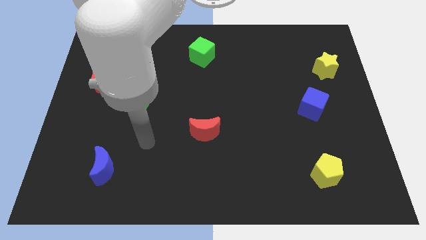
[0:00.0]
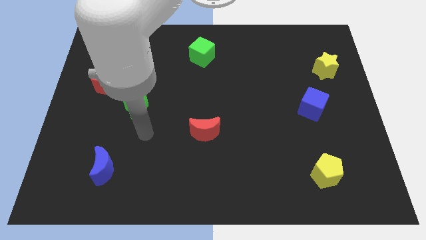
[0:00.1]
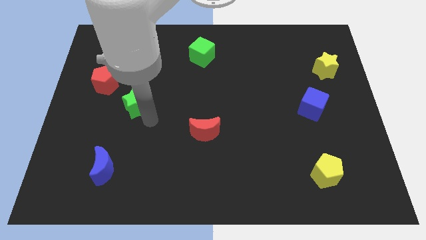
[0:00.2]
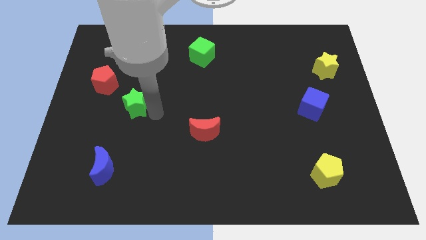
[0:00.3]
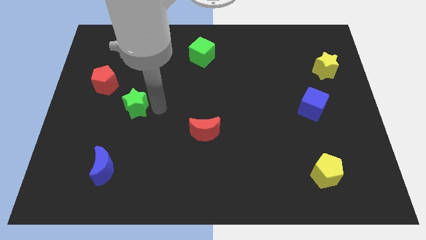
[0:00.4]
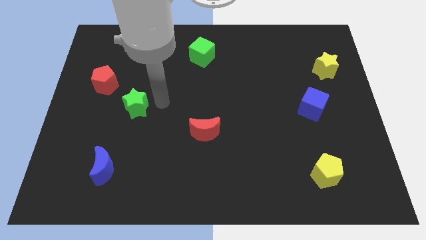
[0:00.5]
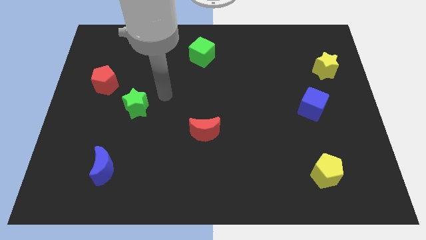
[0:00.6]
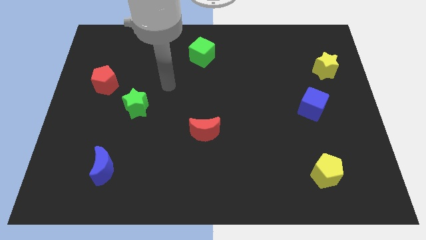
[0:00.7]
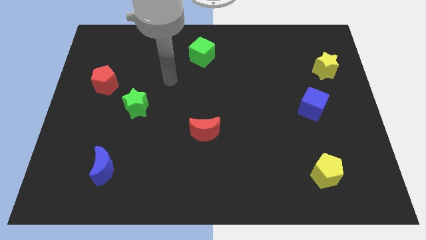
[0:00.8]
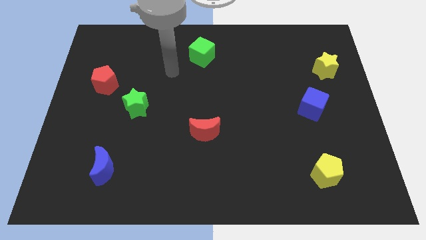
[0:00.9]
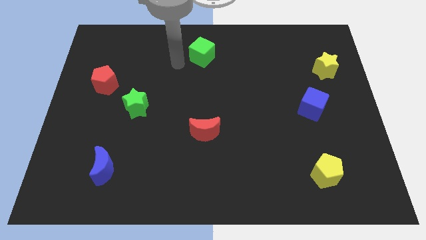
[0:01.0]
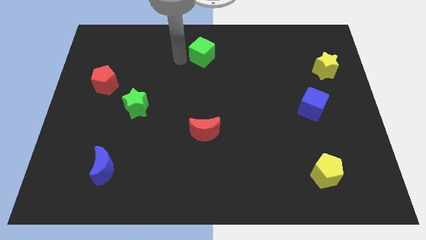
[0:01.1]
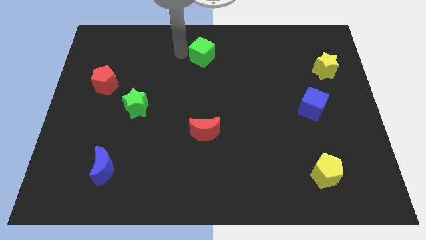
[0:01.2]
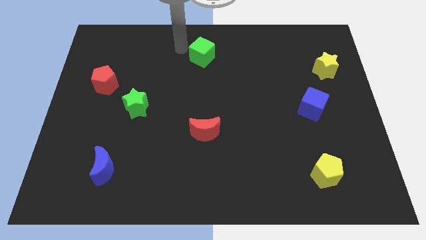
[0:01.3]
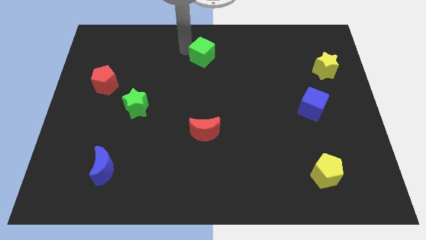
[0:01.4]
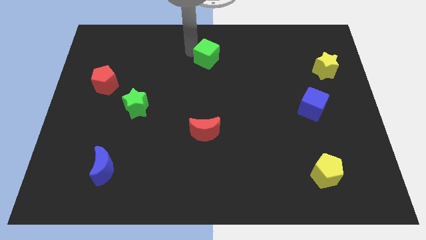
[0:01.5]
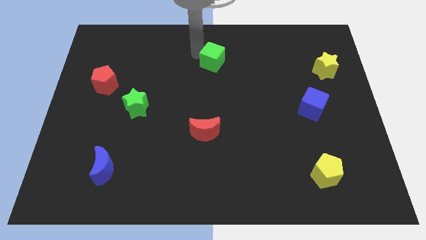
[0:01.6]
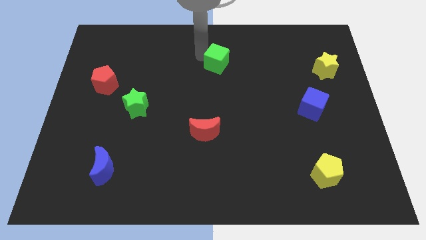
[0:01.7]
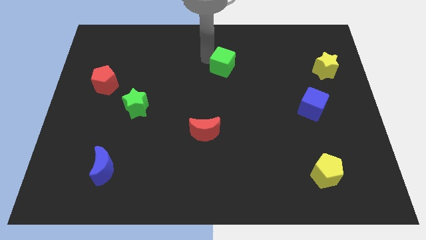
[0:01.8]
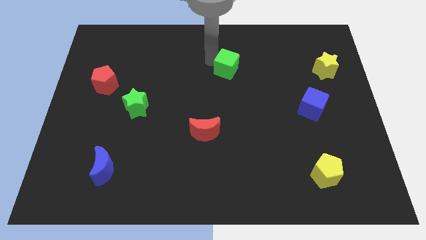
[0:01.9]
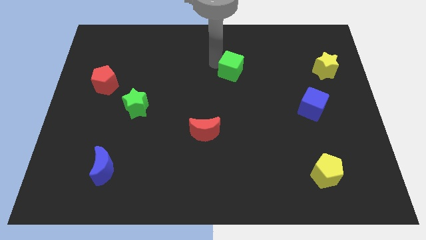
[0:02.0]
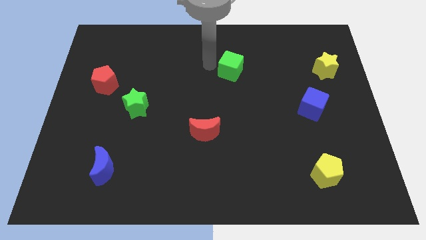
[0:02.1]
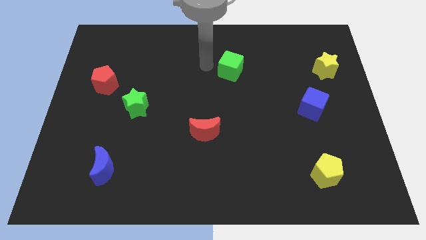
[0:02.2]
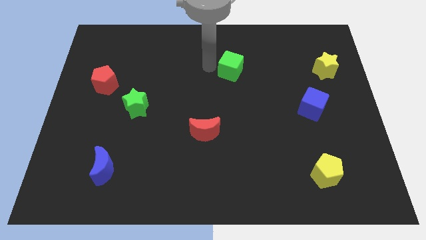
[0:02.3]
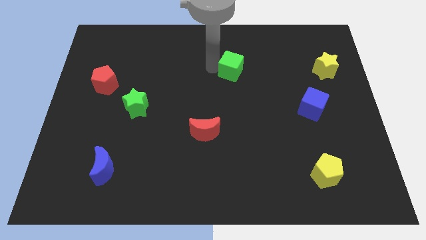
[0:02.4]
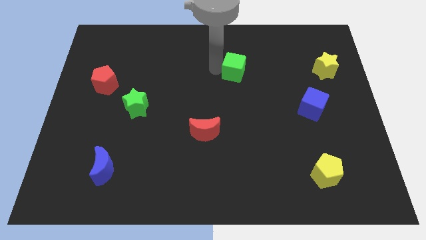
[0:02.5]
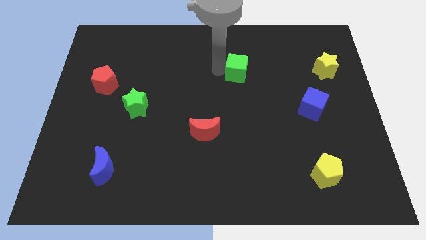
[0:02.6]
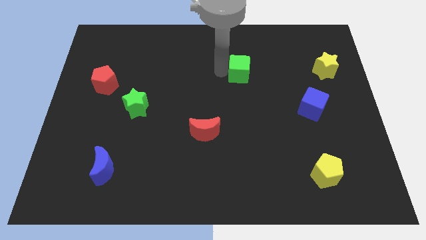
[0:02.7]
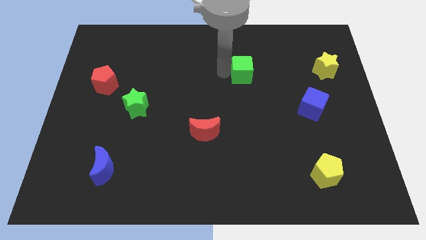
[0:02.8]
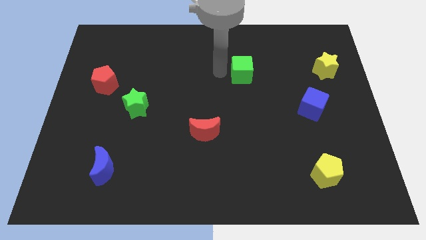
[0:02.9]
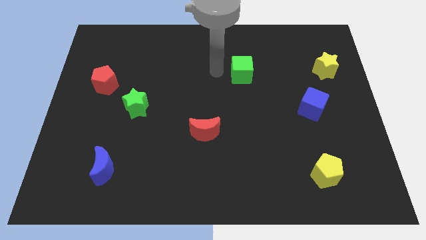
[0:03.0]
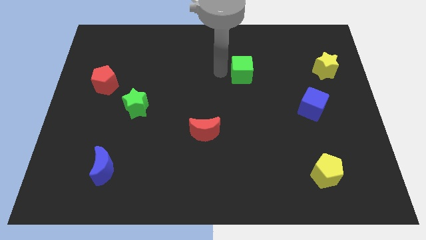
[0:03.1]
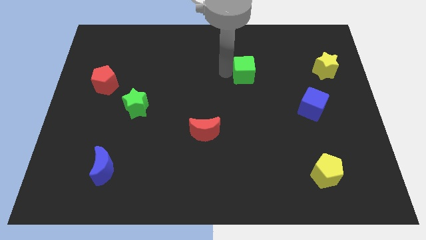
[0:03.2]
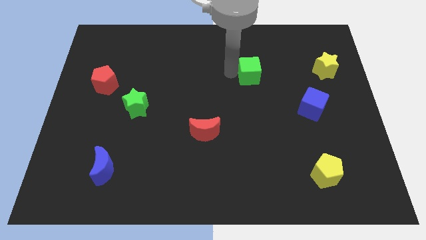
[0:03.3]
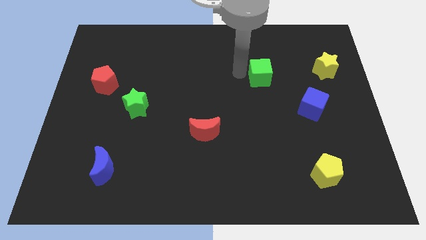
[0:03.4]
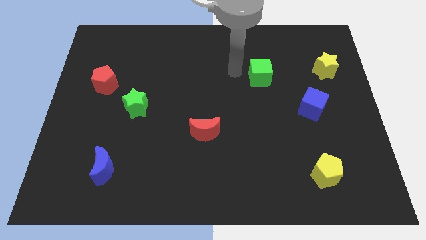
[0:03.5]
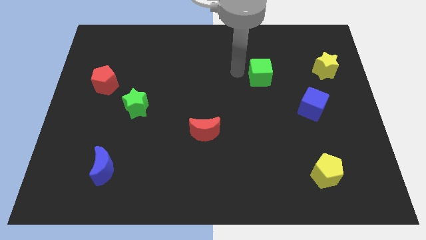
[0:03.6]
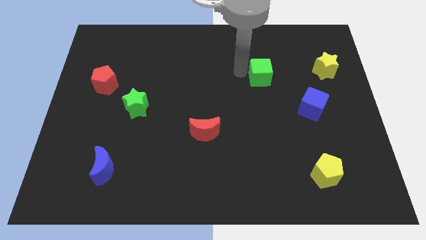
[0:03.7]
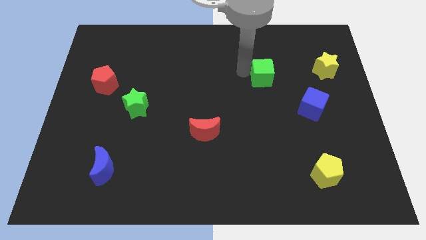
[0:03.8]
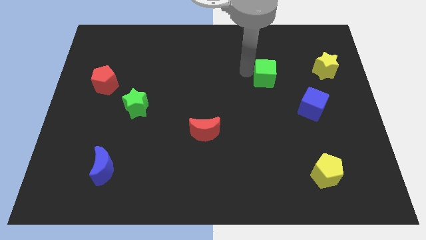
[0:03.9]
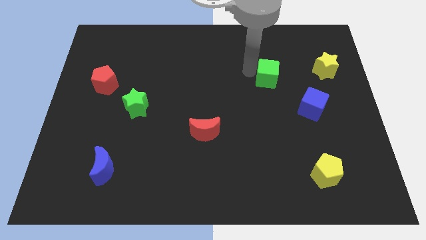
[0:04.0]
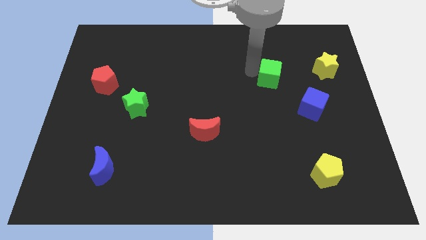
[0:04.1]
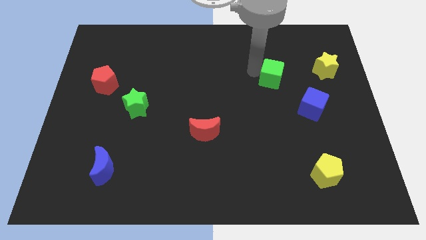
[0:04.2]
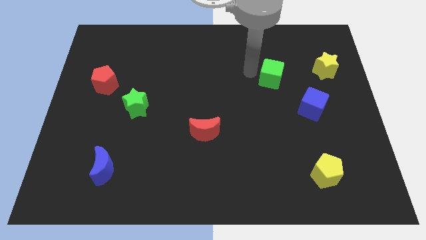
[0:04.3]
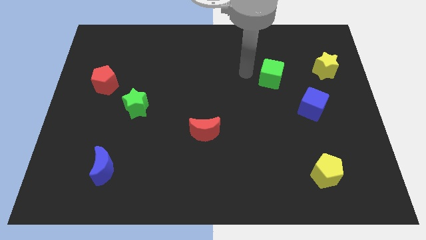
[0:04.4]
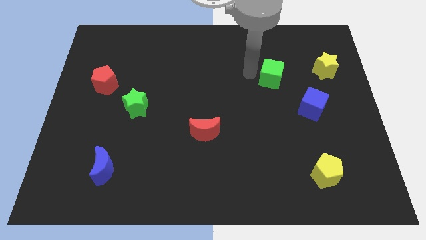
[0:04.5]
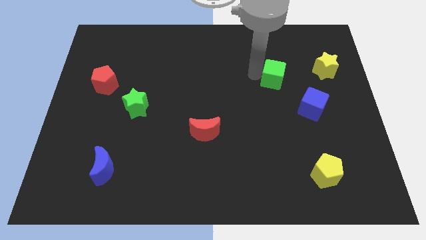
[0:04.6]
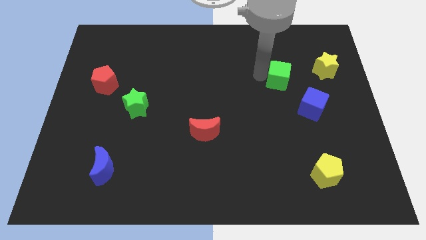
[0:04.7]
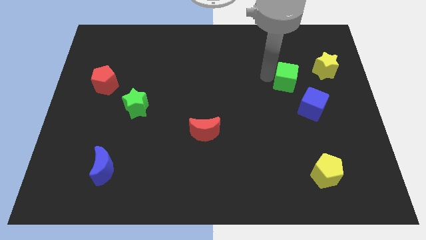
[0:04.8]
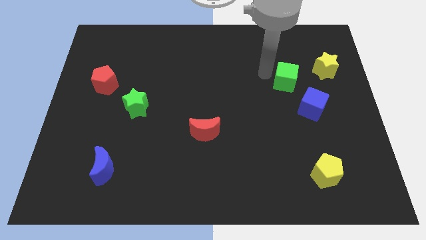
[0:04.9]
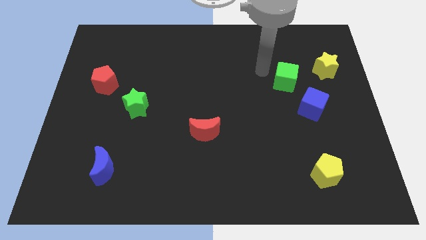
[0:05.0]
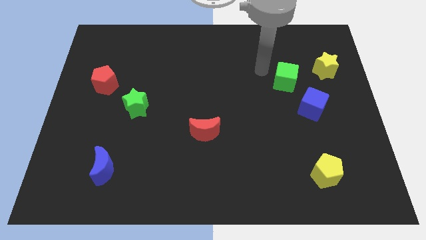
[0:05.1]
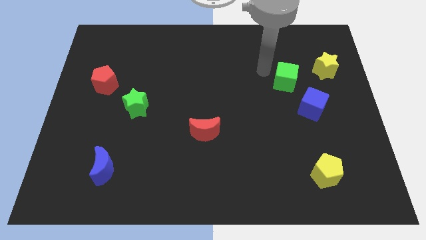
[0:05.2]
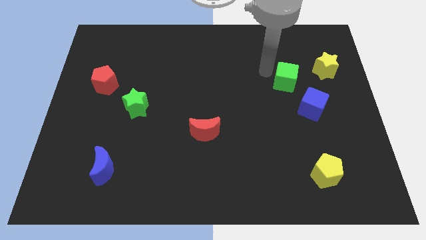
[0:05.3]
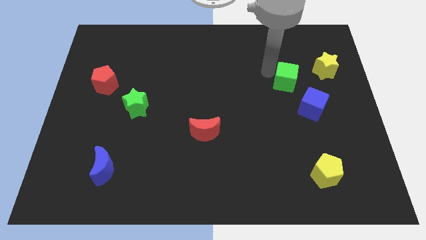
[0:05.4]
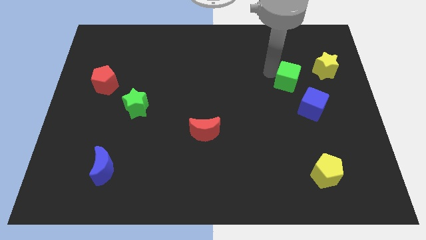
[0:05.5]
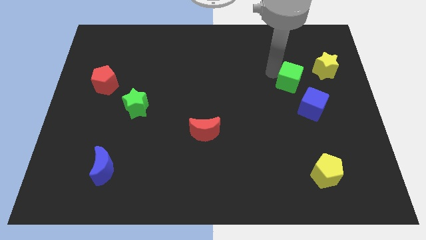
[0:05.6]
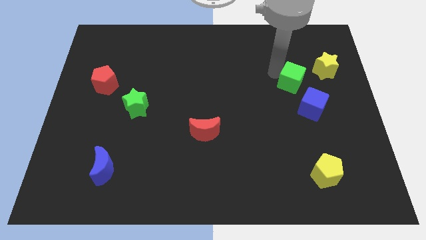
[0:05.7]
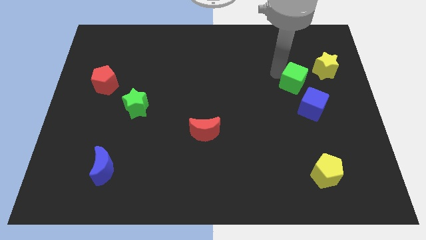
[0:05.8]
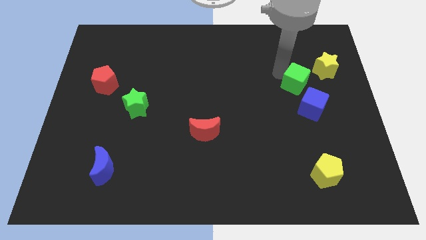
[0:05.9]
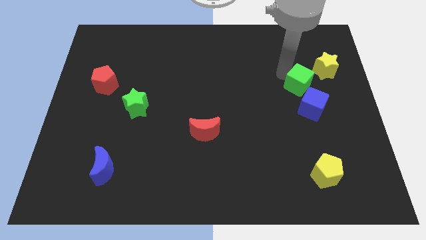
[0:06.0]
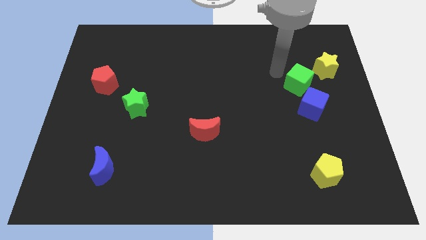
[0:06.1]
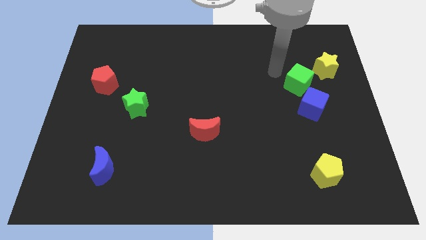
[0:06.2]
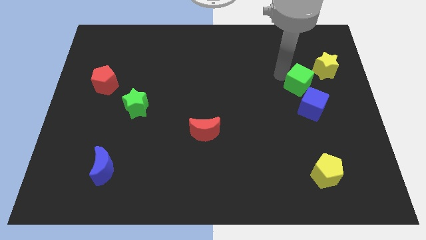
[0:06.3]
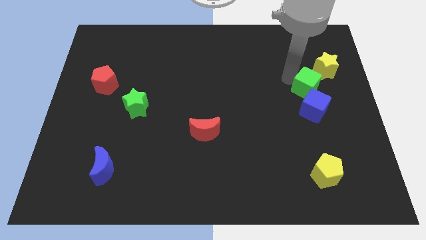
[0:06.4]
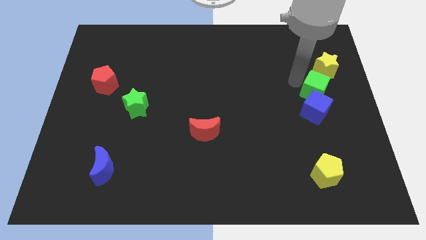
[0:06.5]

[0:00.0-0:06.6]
slide the green cube to the bottom side of the yellow star

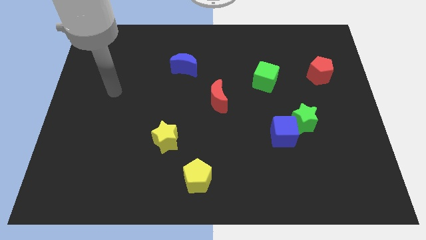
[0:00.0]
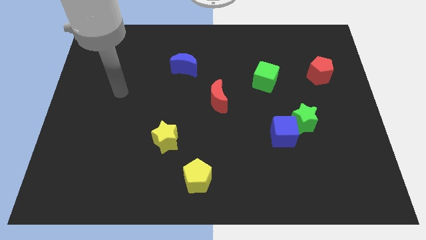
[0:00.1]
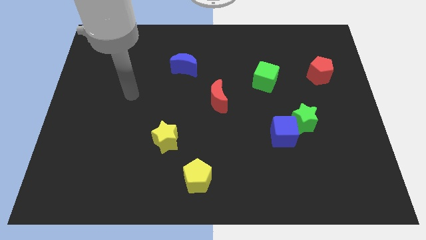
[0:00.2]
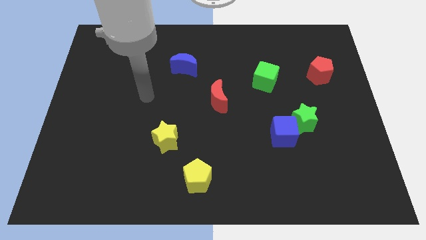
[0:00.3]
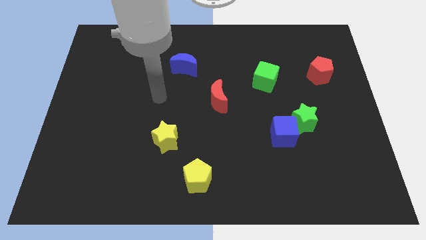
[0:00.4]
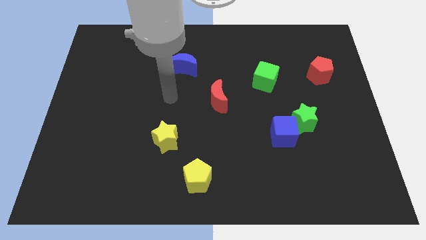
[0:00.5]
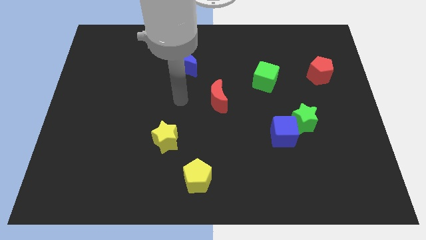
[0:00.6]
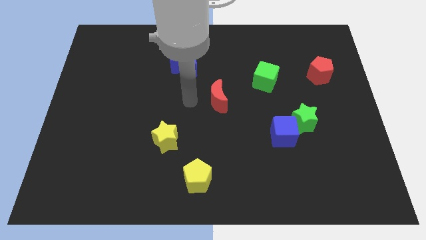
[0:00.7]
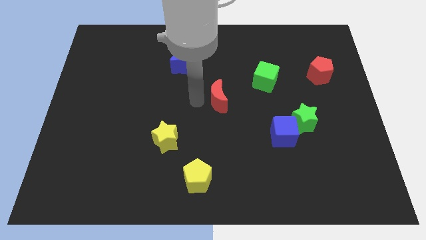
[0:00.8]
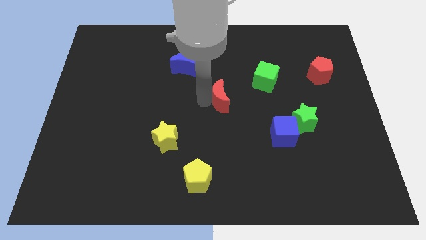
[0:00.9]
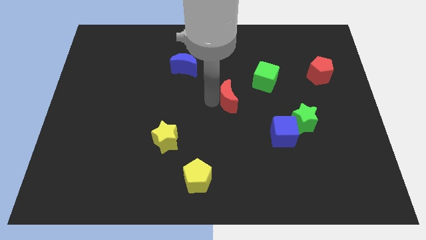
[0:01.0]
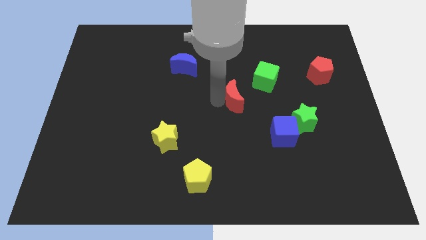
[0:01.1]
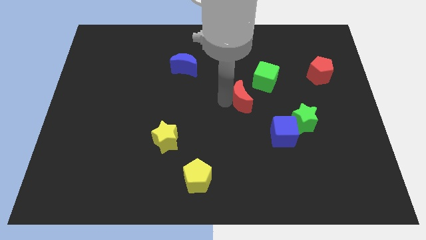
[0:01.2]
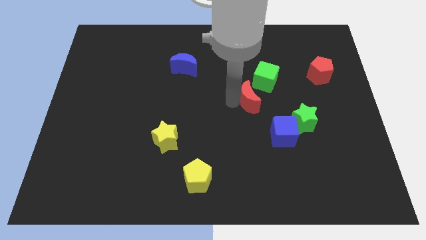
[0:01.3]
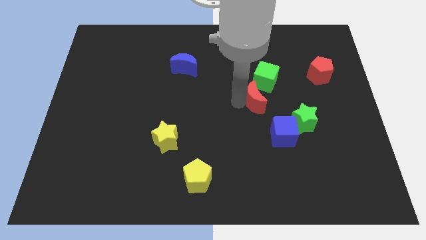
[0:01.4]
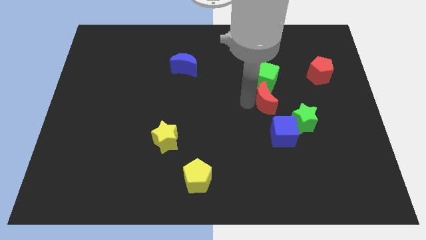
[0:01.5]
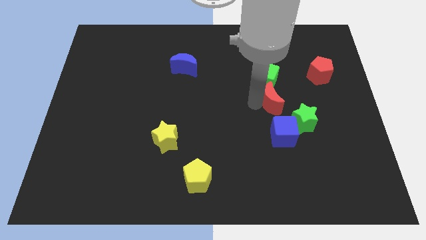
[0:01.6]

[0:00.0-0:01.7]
move the red moon to the bottom right of the green cube
